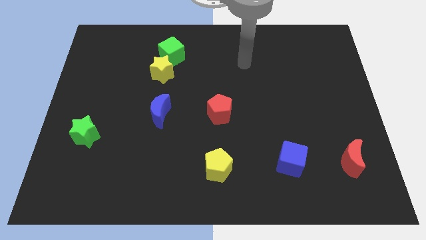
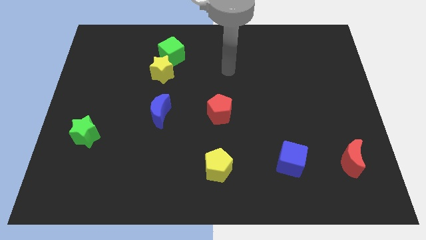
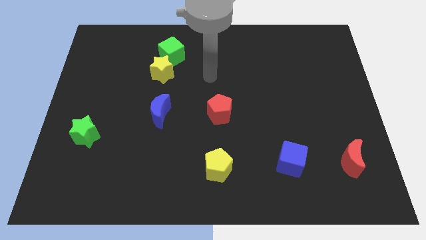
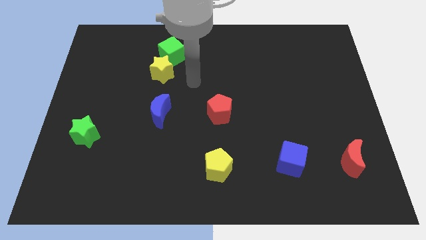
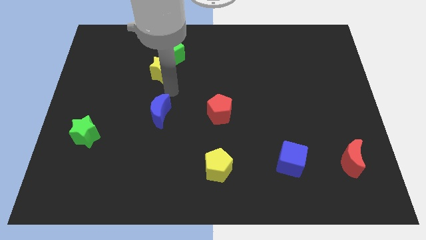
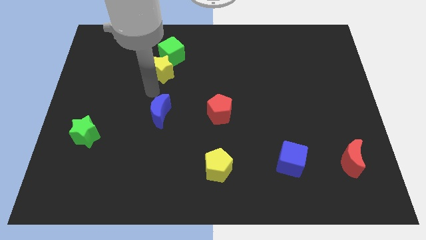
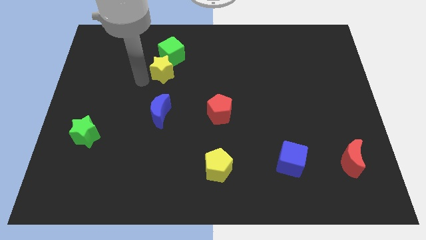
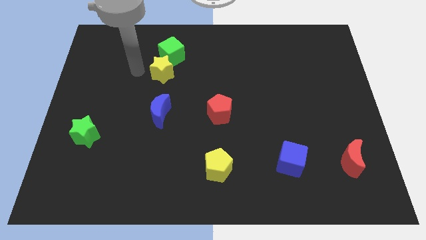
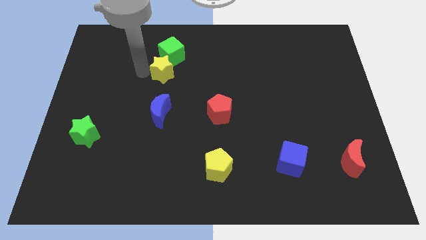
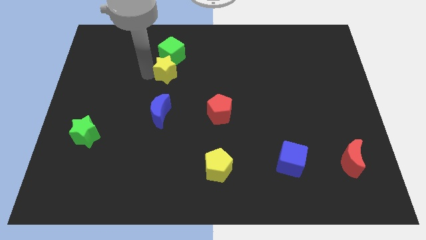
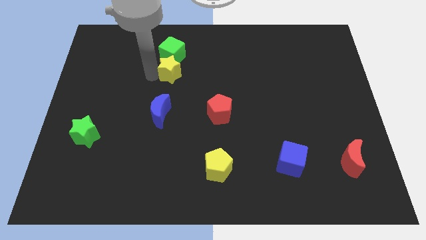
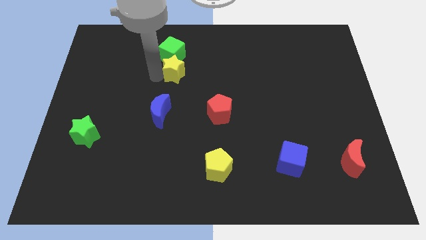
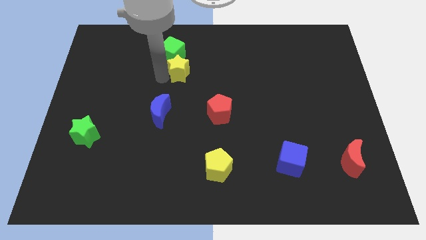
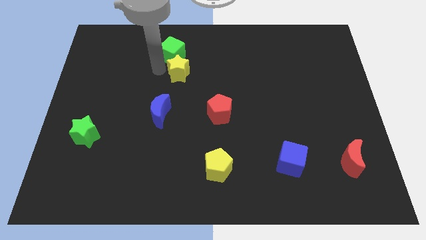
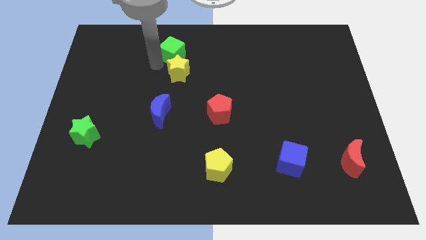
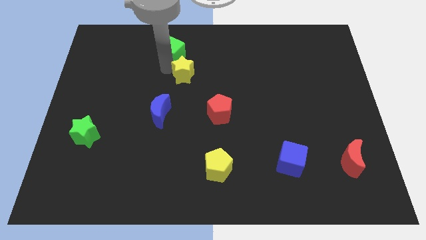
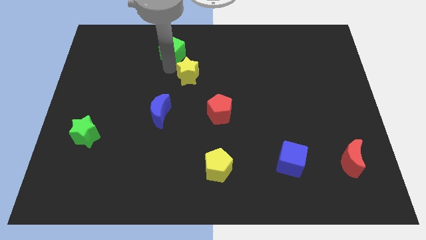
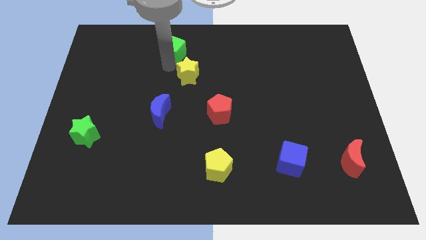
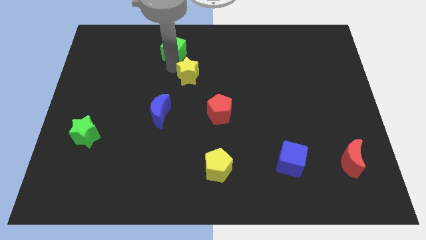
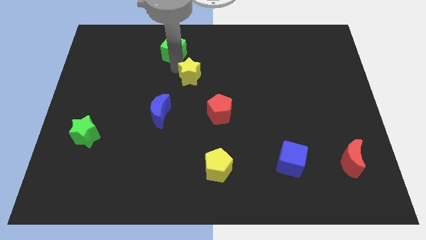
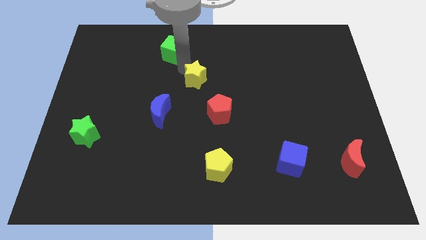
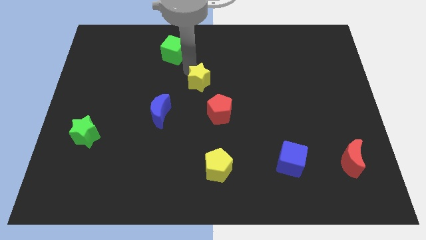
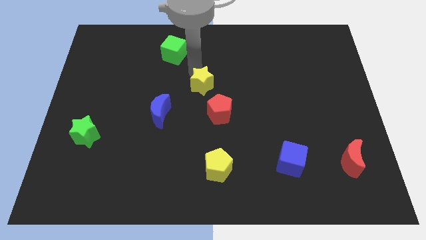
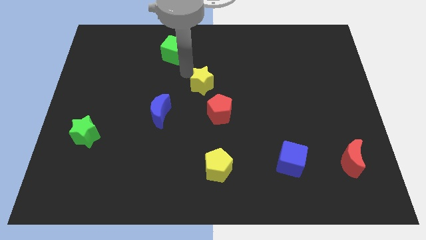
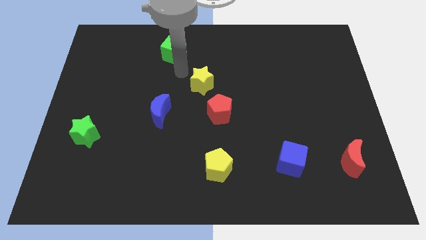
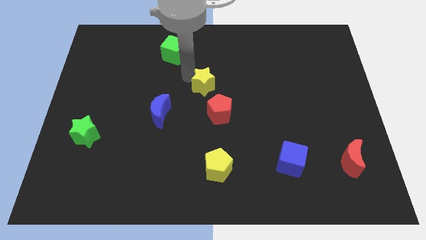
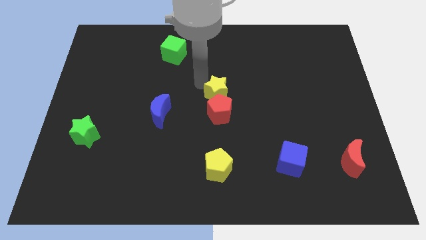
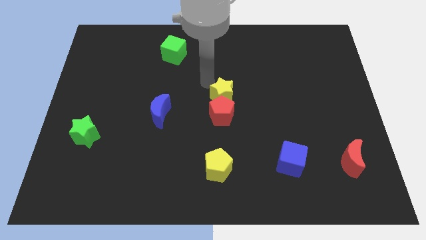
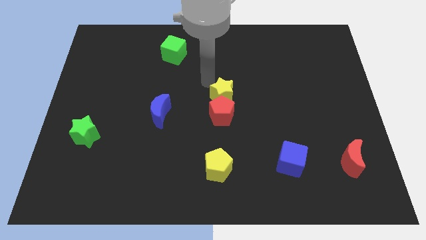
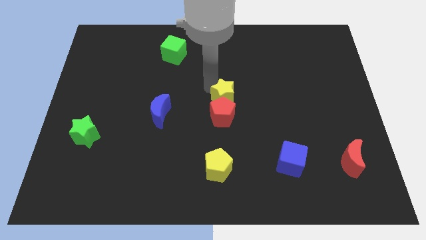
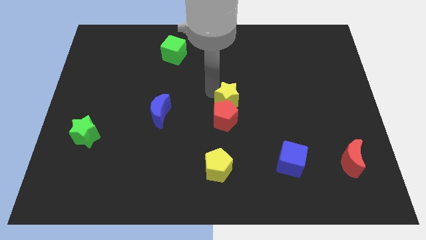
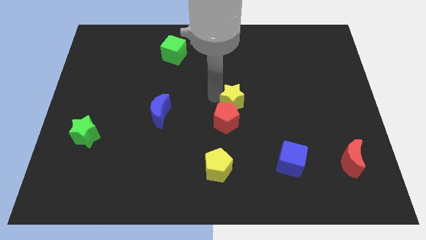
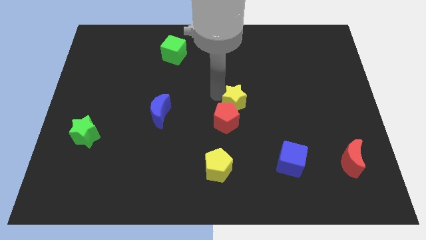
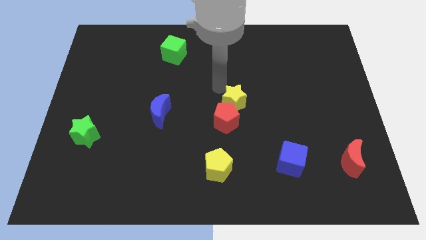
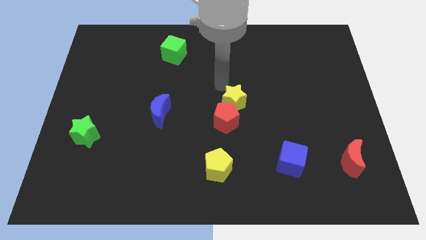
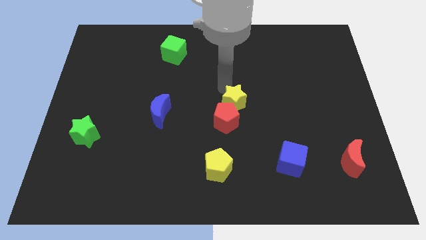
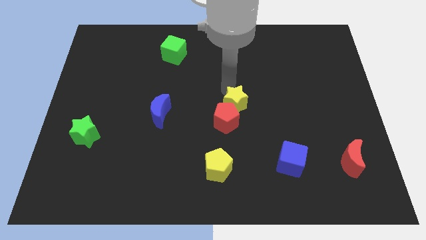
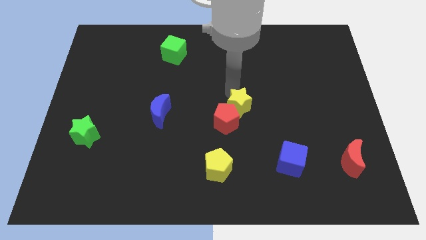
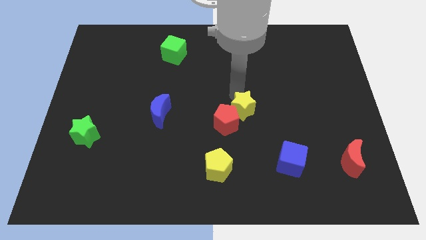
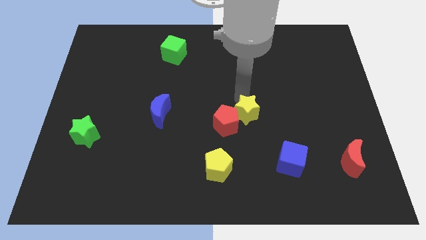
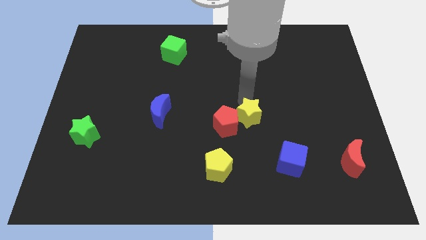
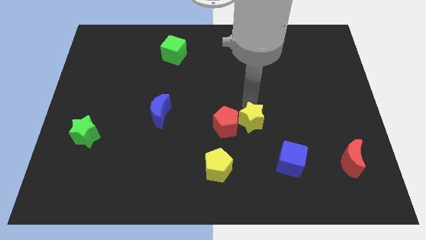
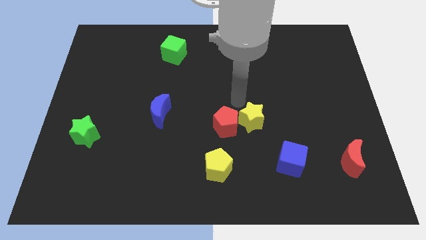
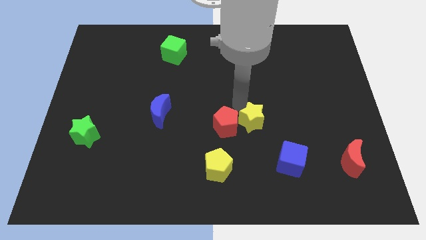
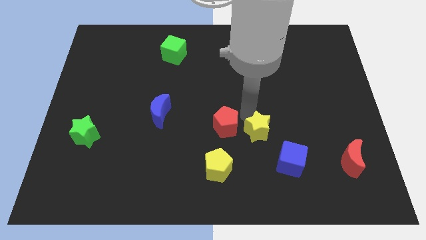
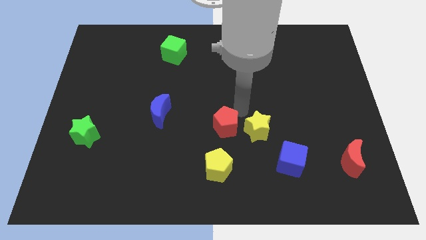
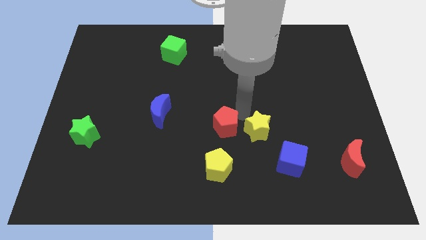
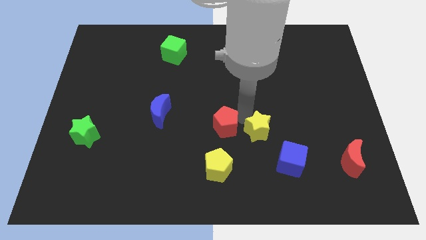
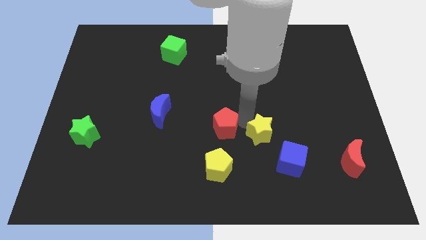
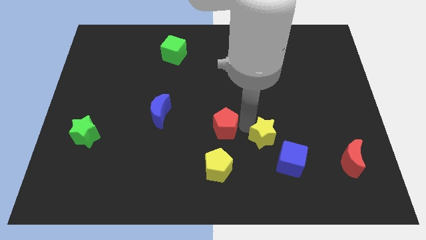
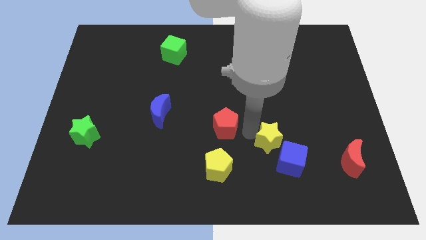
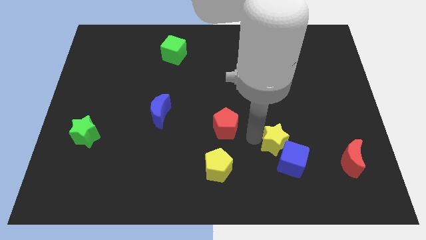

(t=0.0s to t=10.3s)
move the yellow star towards the blue cube

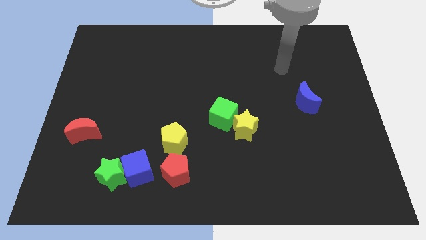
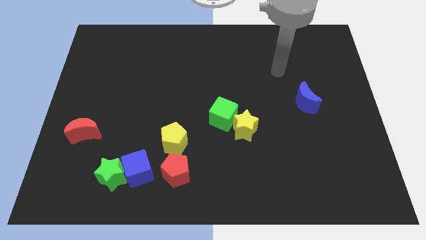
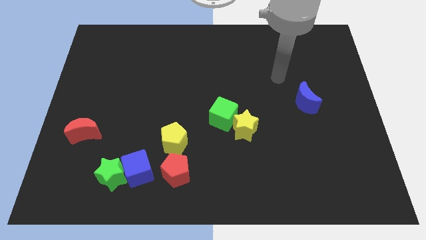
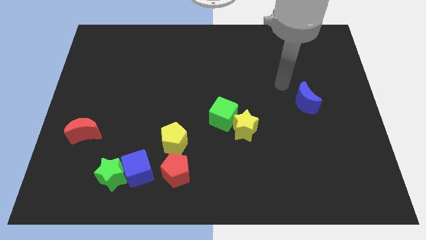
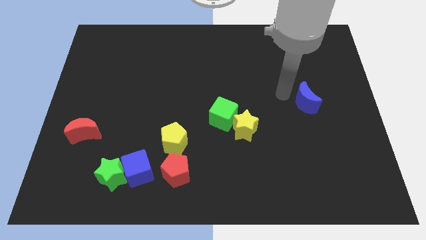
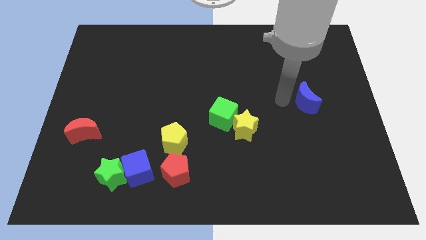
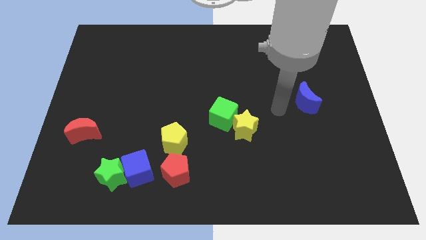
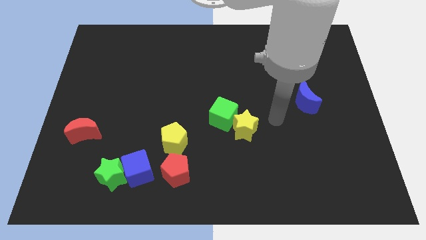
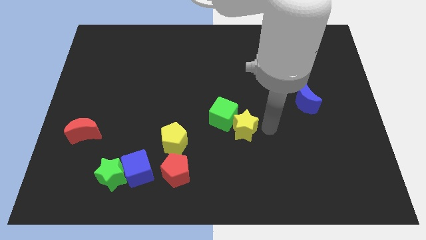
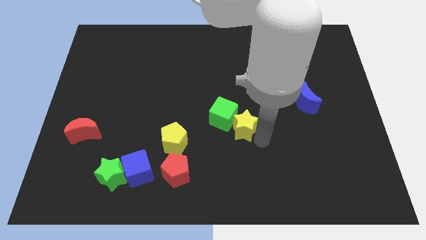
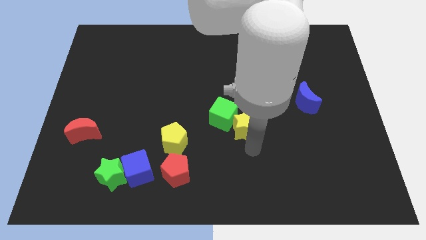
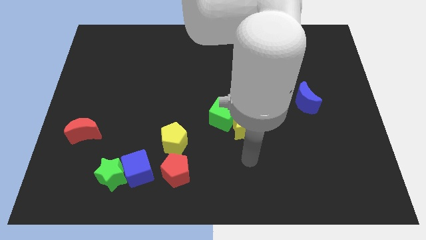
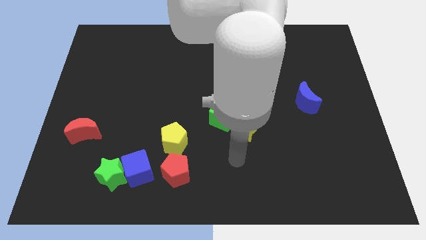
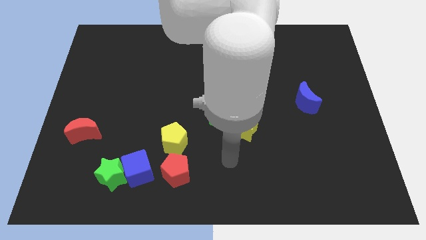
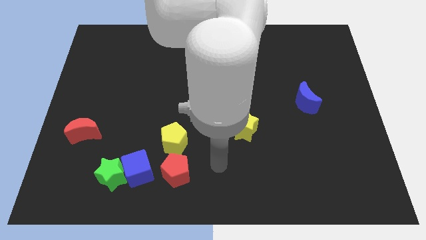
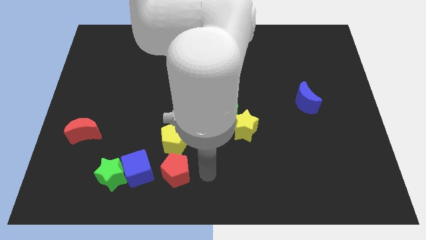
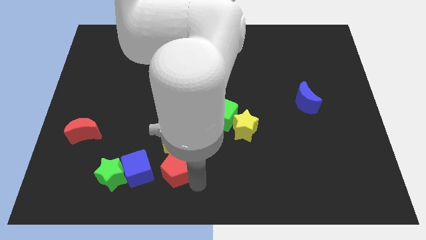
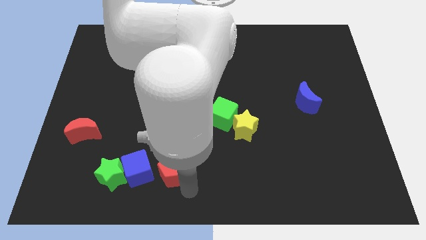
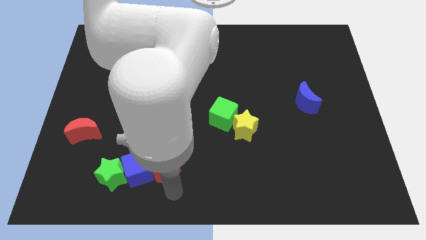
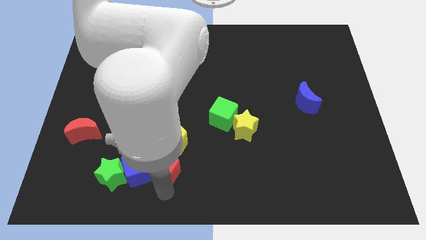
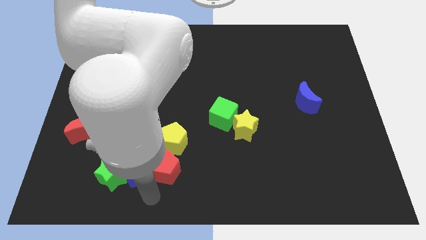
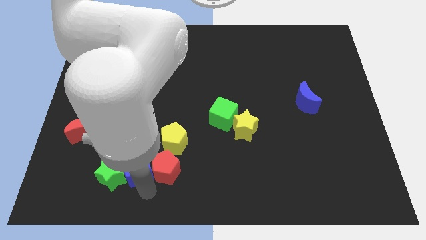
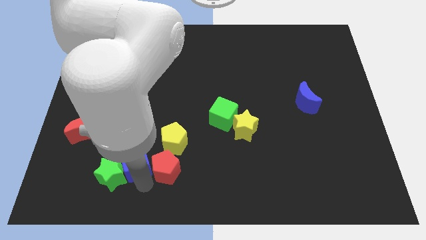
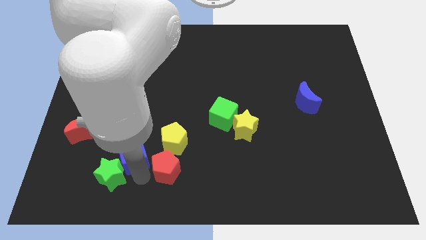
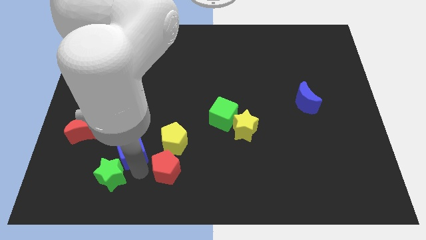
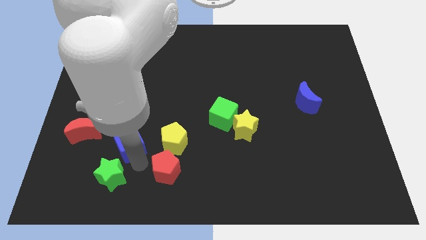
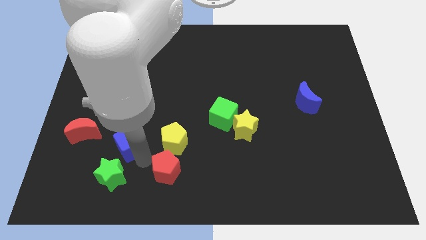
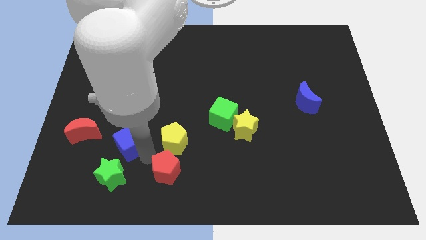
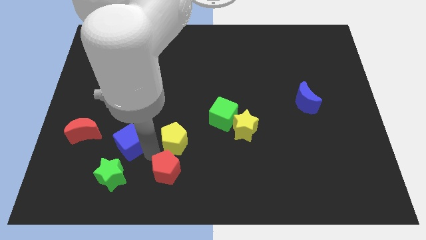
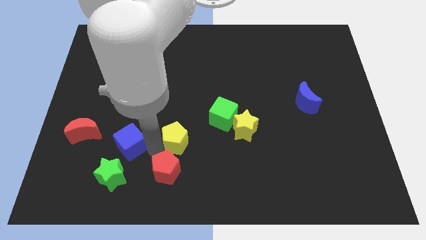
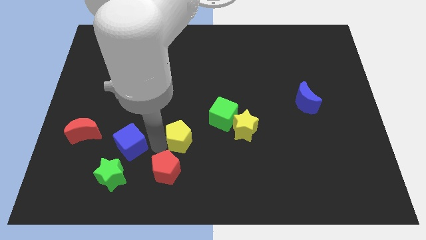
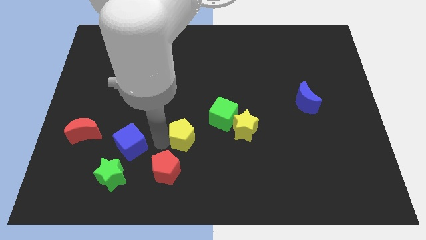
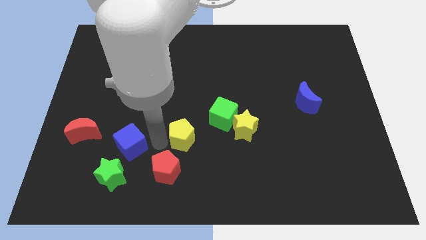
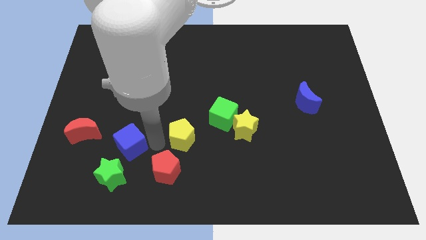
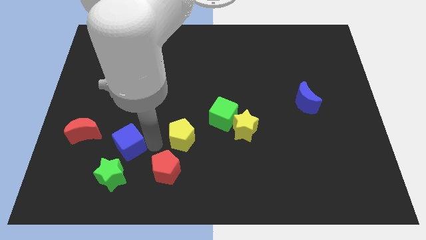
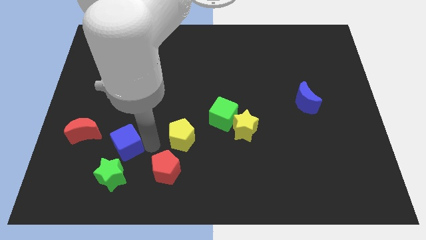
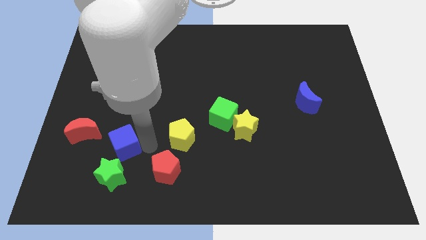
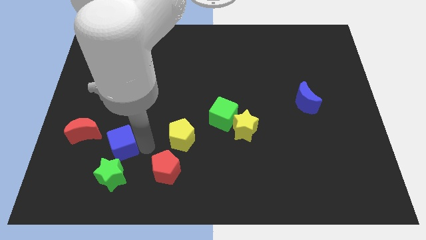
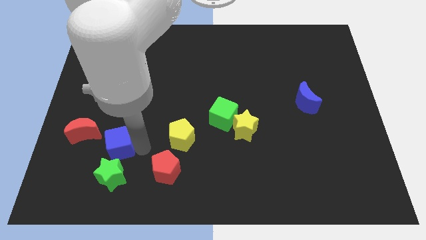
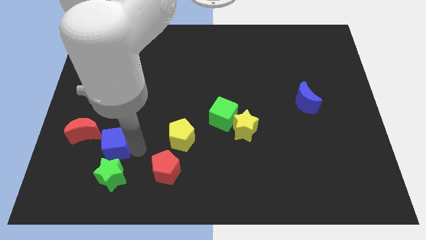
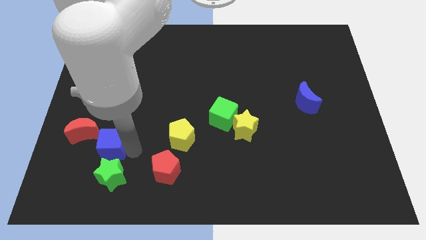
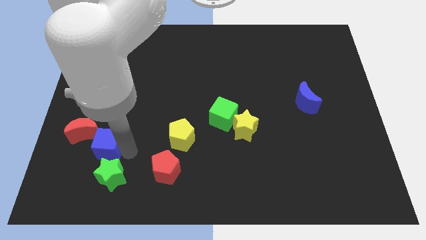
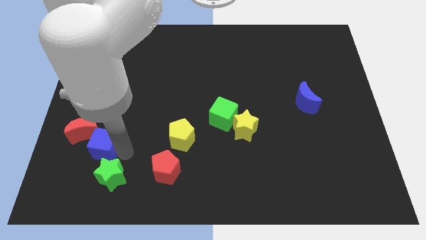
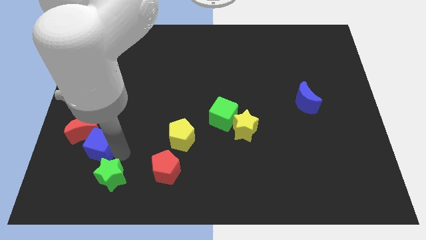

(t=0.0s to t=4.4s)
put the blue cube next to the red moon
